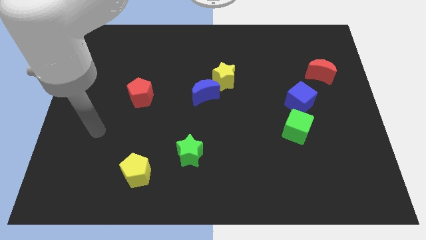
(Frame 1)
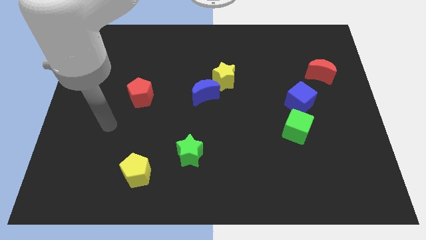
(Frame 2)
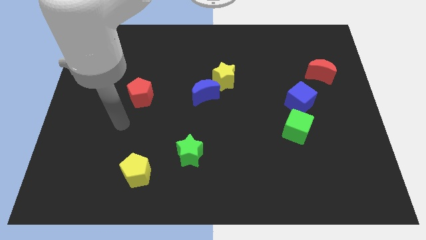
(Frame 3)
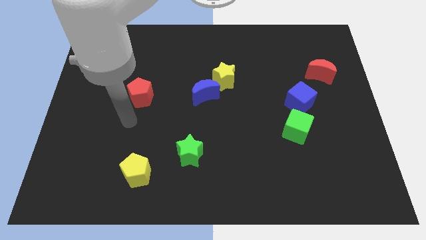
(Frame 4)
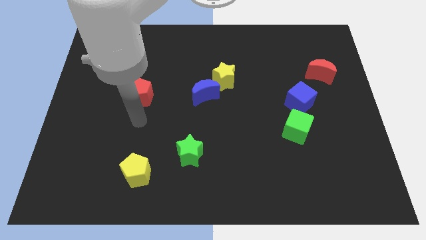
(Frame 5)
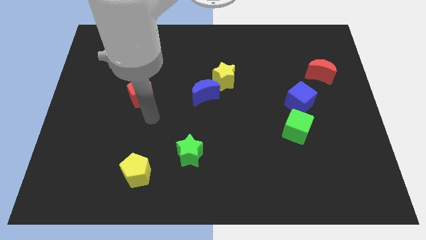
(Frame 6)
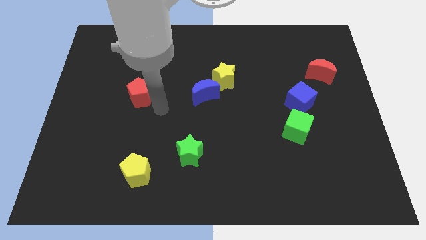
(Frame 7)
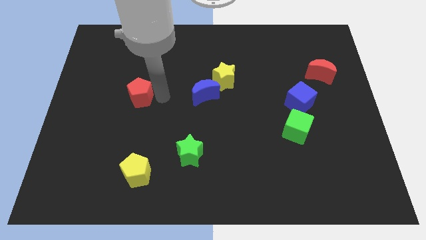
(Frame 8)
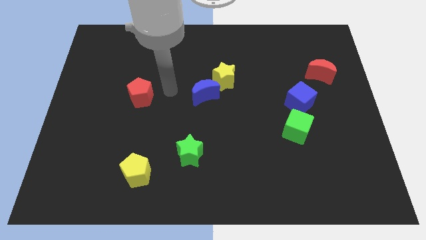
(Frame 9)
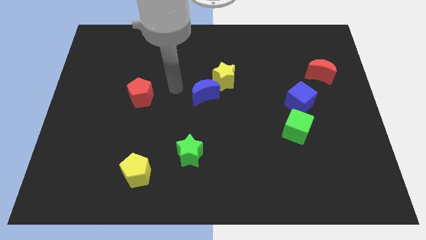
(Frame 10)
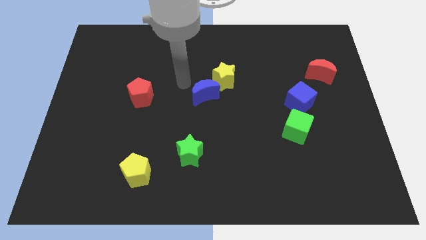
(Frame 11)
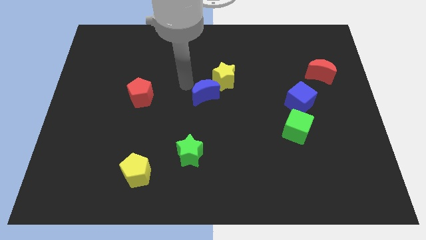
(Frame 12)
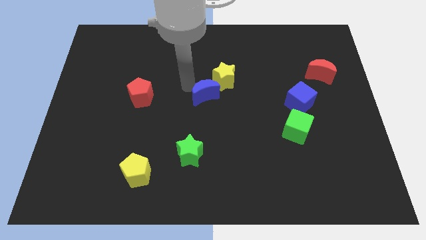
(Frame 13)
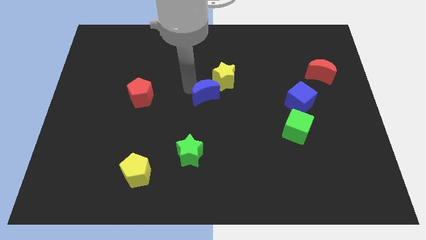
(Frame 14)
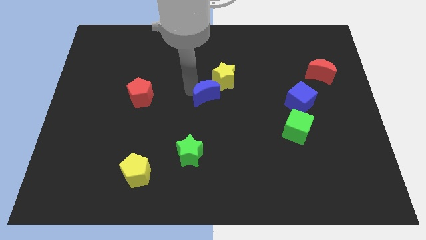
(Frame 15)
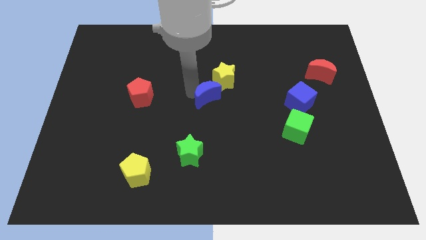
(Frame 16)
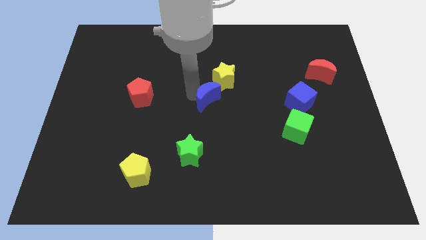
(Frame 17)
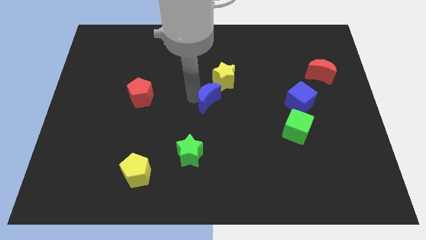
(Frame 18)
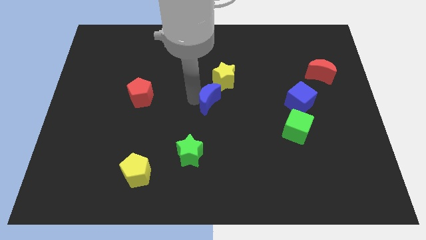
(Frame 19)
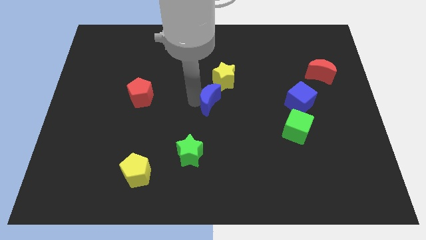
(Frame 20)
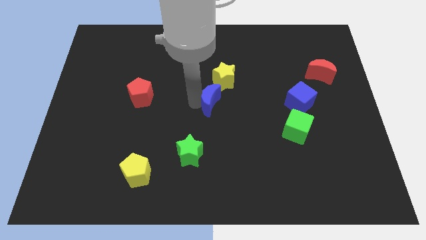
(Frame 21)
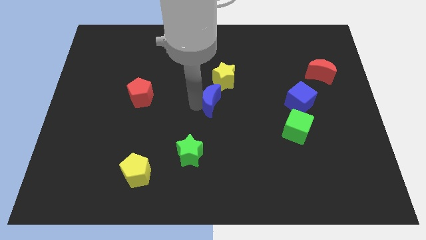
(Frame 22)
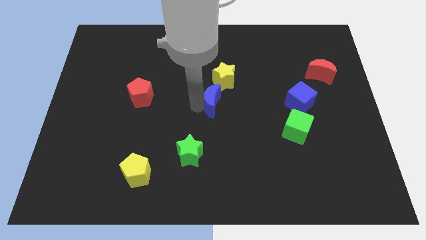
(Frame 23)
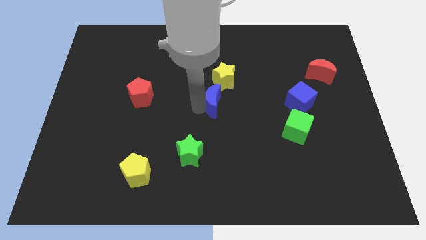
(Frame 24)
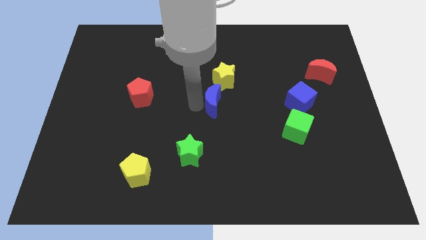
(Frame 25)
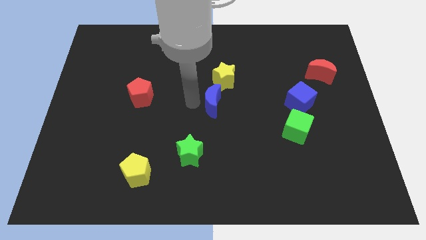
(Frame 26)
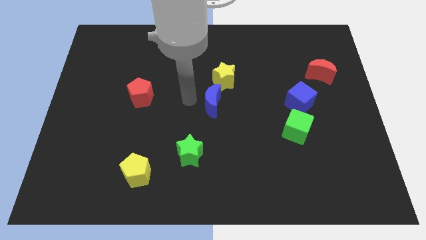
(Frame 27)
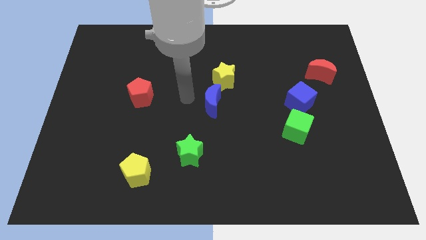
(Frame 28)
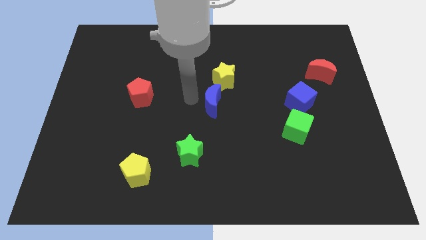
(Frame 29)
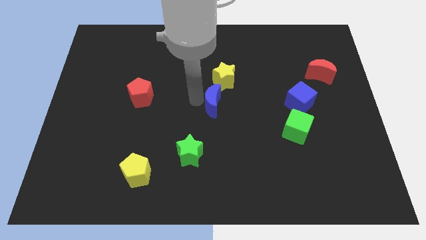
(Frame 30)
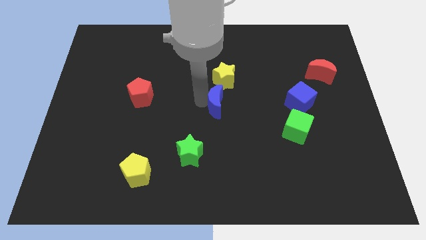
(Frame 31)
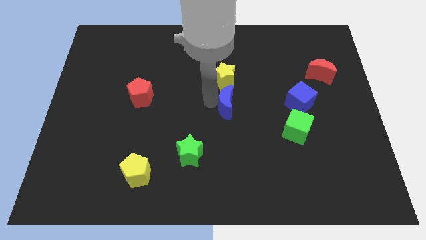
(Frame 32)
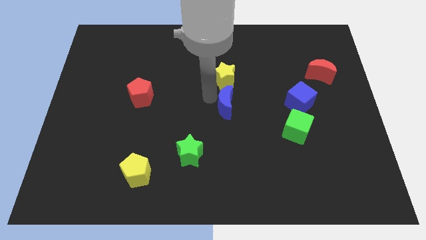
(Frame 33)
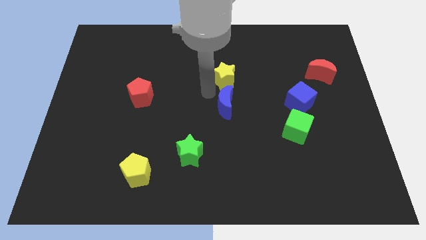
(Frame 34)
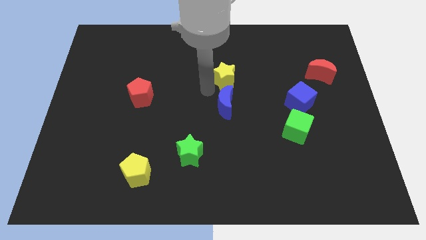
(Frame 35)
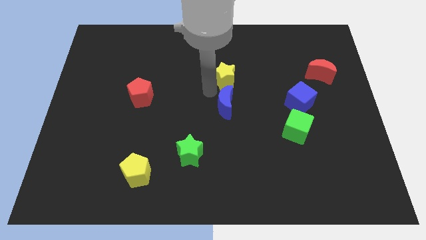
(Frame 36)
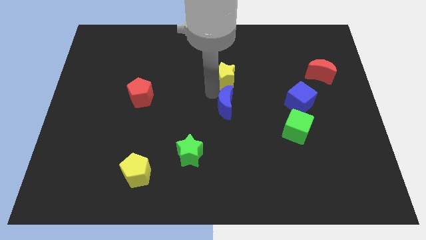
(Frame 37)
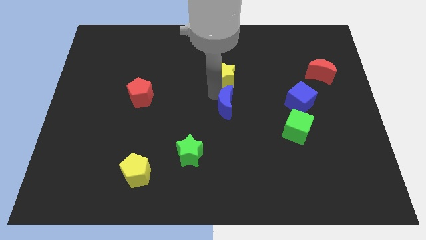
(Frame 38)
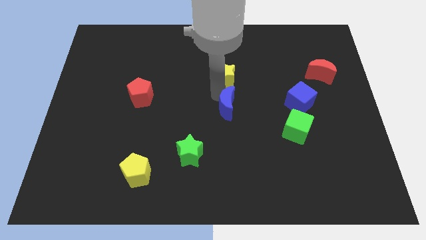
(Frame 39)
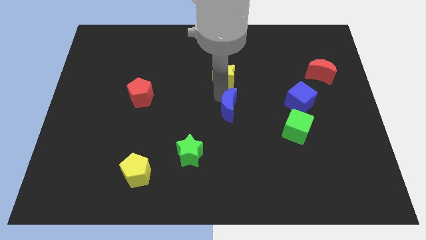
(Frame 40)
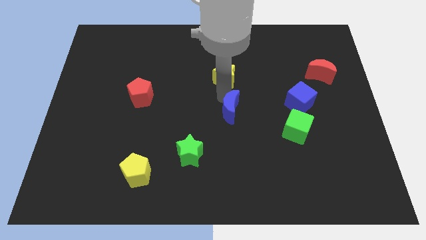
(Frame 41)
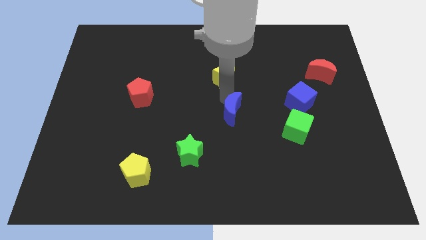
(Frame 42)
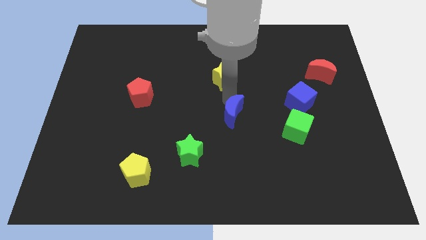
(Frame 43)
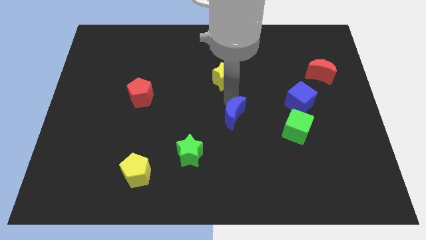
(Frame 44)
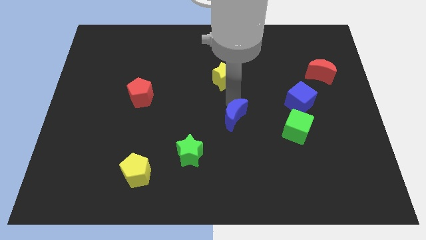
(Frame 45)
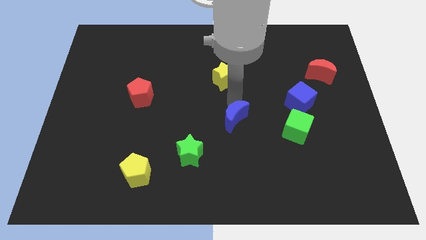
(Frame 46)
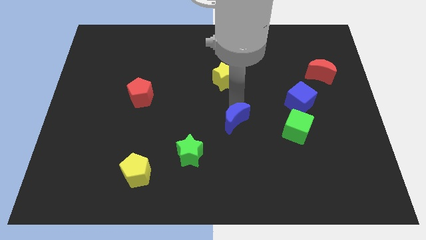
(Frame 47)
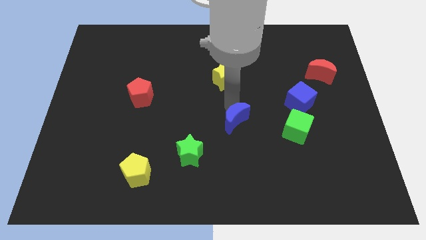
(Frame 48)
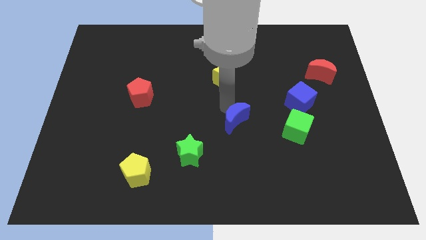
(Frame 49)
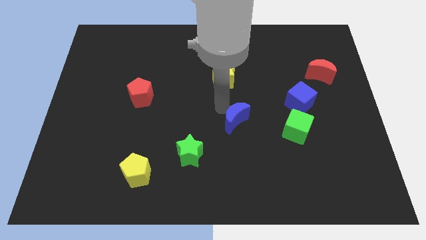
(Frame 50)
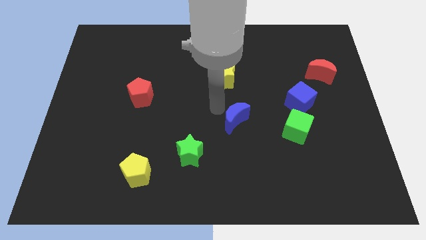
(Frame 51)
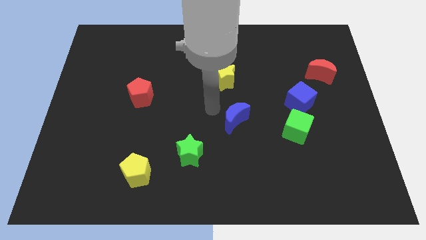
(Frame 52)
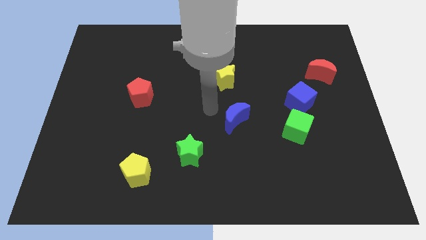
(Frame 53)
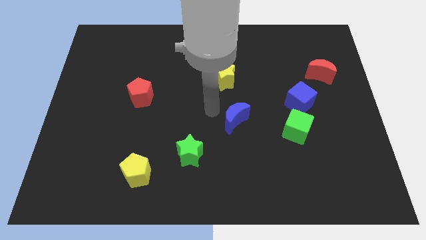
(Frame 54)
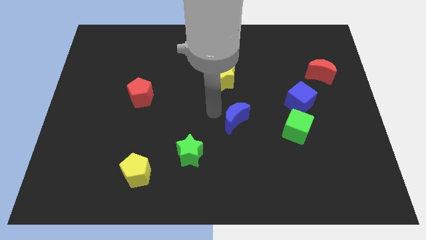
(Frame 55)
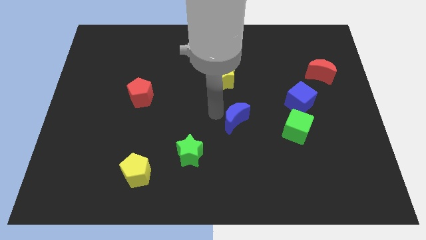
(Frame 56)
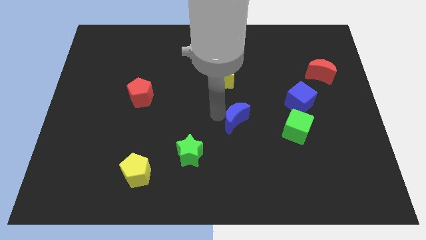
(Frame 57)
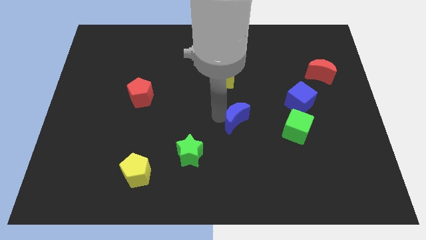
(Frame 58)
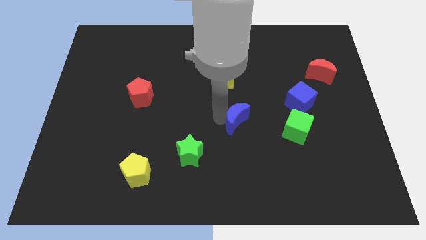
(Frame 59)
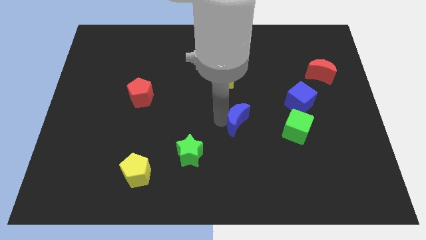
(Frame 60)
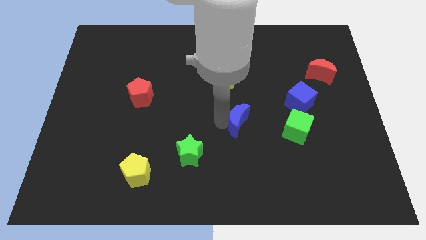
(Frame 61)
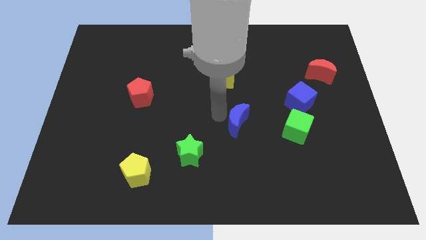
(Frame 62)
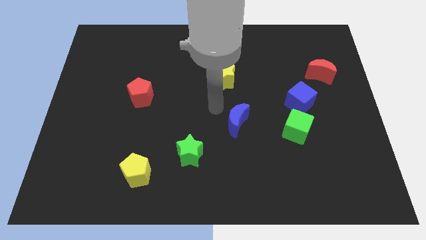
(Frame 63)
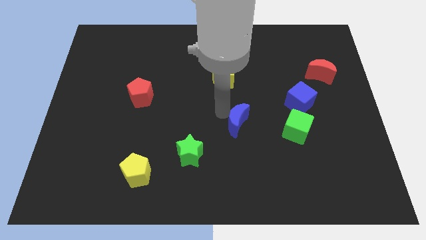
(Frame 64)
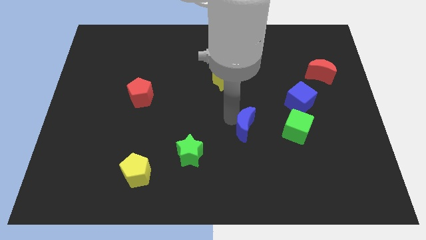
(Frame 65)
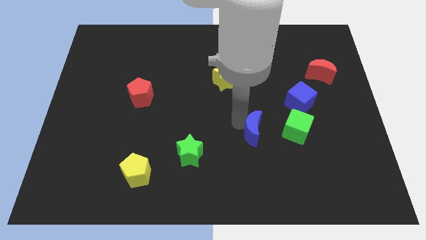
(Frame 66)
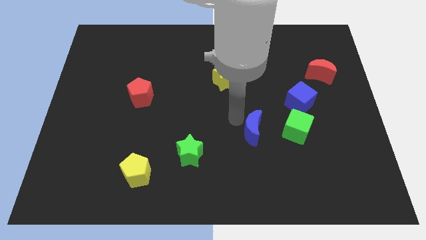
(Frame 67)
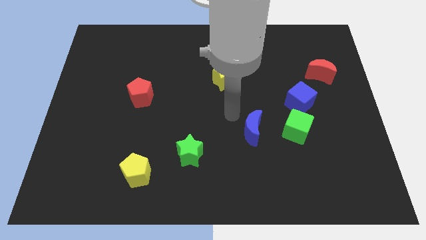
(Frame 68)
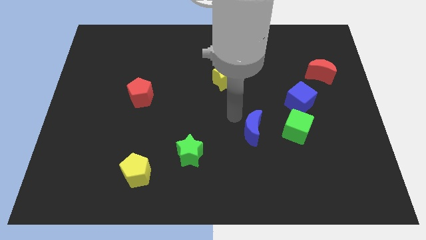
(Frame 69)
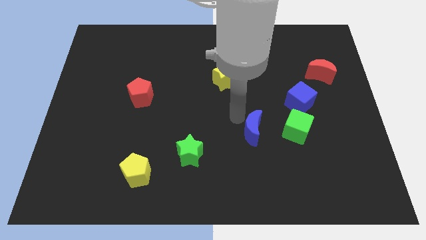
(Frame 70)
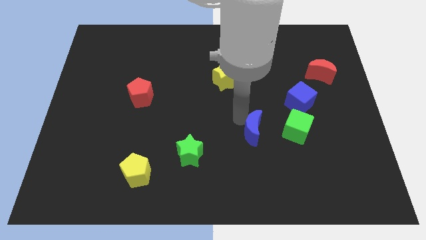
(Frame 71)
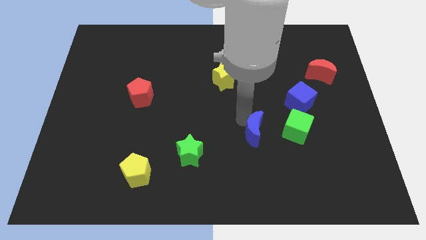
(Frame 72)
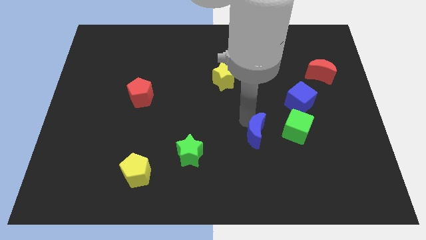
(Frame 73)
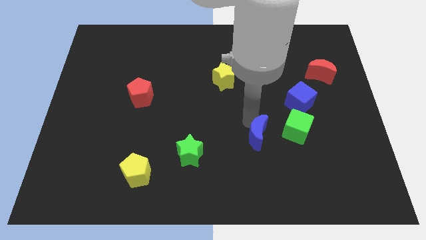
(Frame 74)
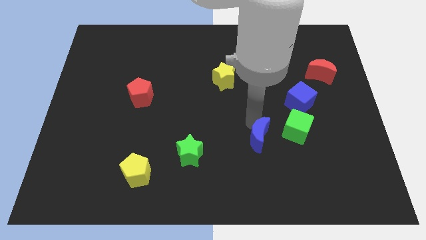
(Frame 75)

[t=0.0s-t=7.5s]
put the blue moon to the bottom left side of the green cube

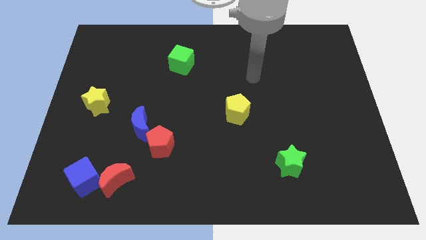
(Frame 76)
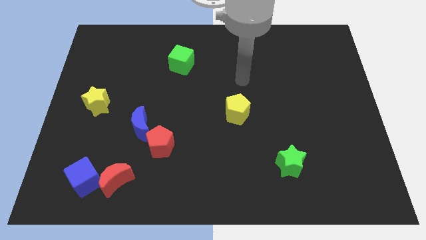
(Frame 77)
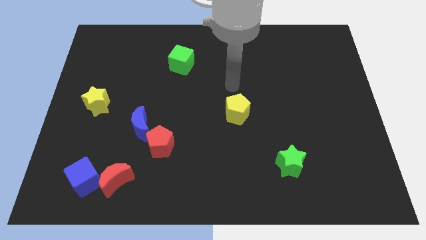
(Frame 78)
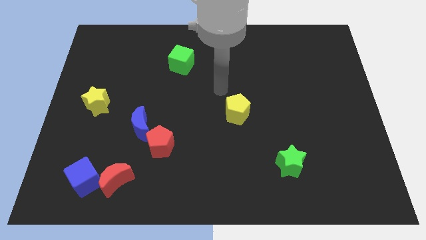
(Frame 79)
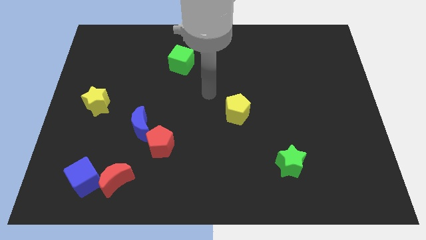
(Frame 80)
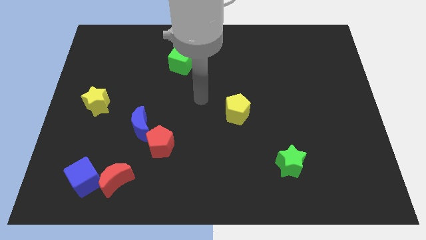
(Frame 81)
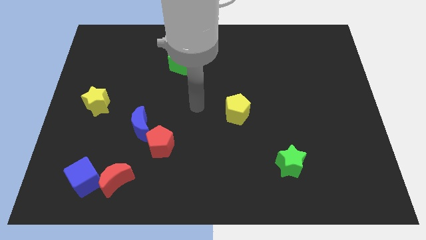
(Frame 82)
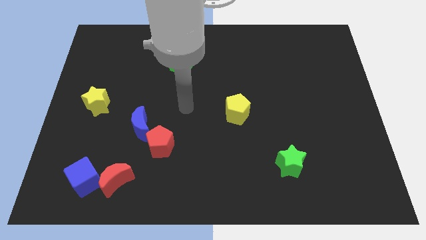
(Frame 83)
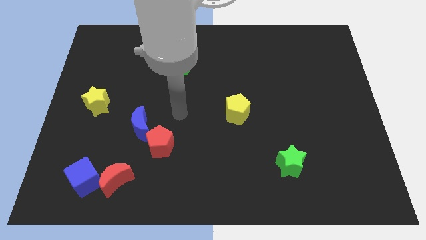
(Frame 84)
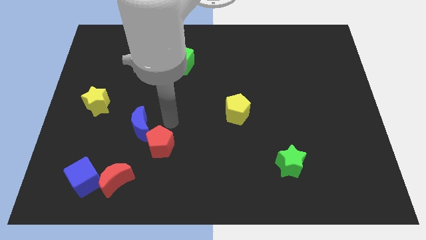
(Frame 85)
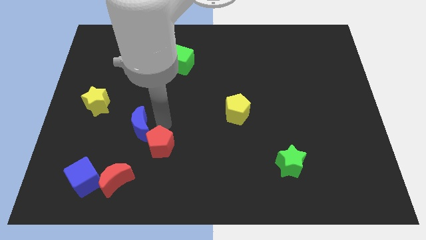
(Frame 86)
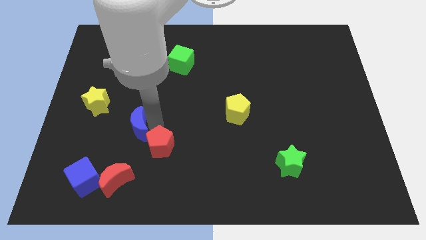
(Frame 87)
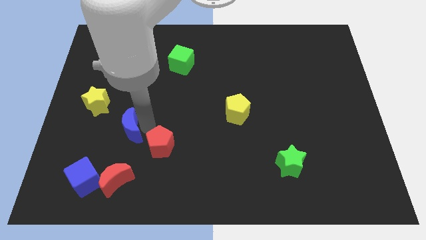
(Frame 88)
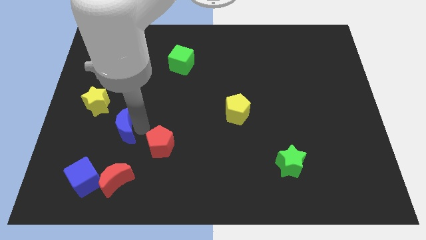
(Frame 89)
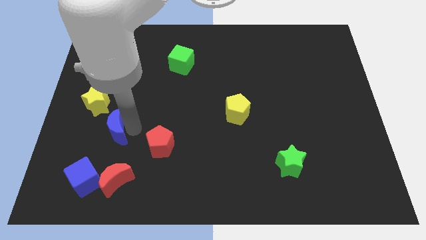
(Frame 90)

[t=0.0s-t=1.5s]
move the blue moon to the top of the blue cube
